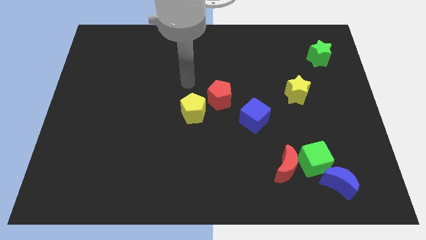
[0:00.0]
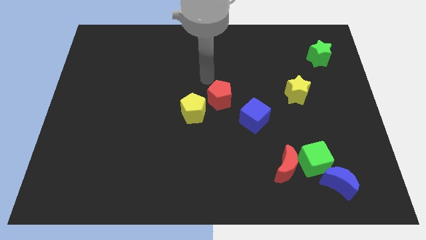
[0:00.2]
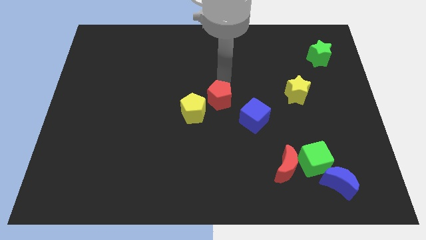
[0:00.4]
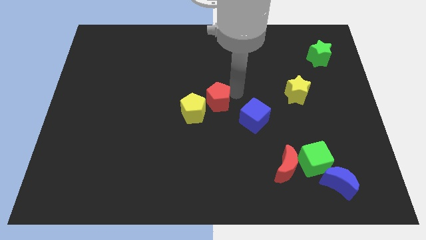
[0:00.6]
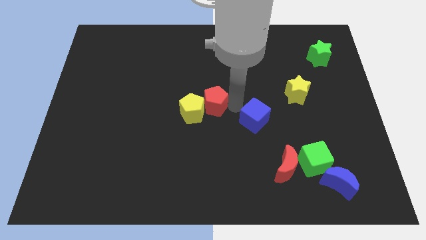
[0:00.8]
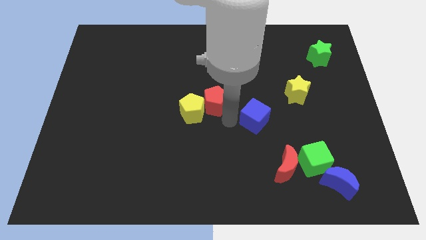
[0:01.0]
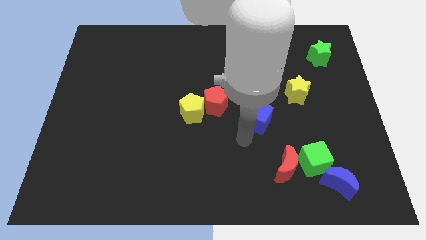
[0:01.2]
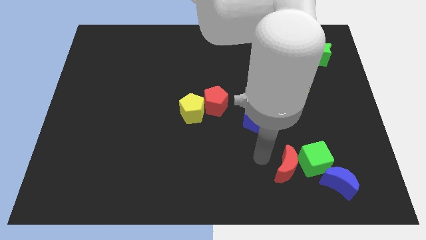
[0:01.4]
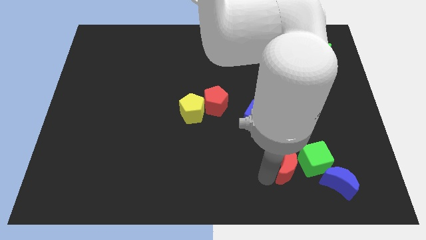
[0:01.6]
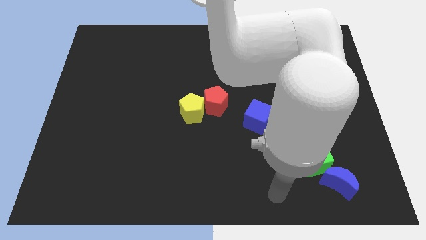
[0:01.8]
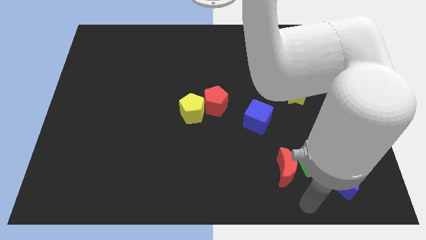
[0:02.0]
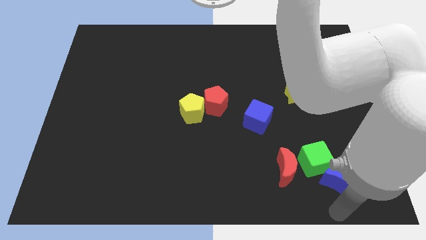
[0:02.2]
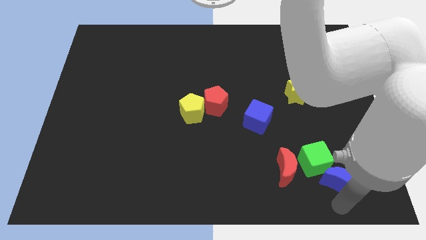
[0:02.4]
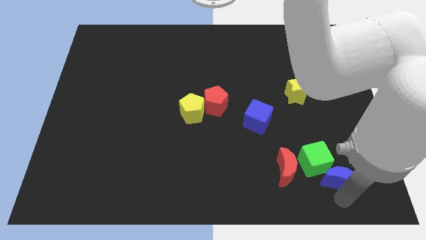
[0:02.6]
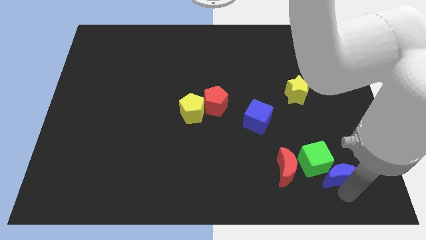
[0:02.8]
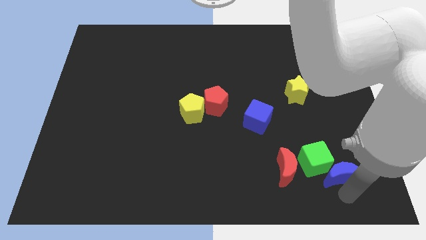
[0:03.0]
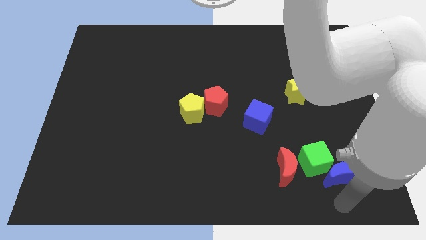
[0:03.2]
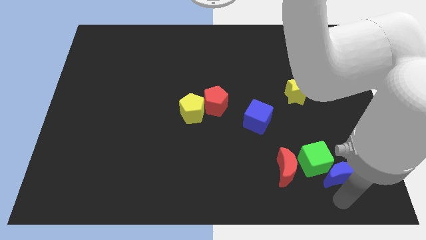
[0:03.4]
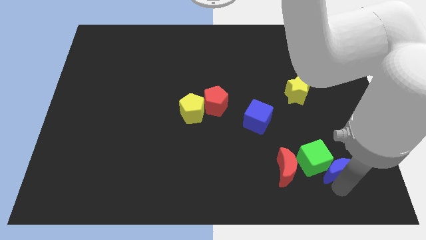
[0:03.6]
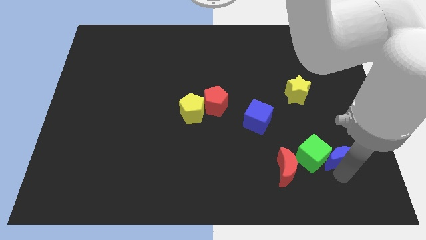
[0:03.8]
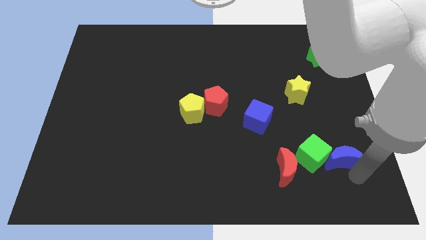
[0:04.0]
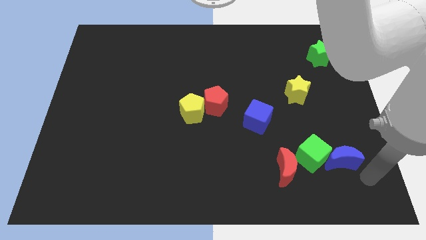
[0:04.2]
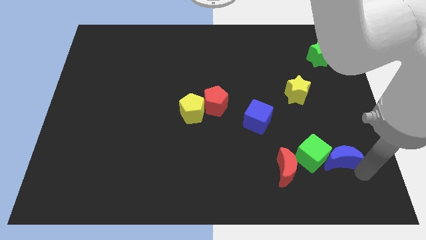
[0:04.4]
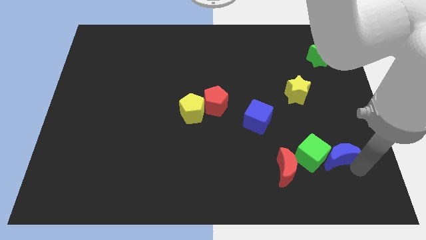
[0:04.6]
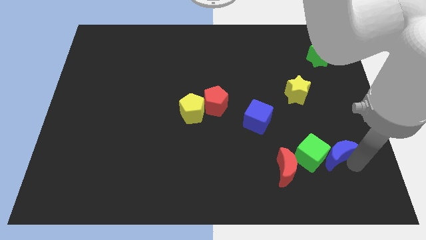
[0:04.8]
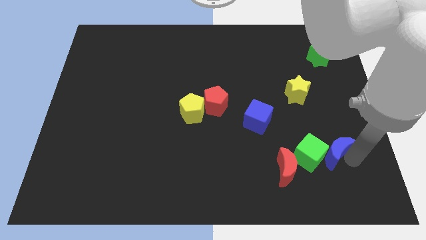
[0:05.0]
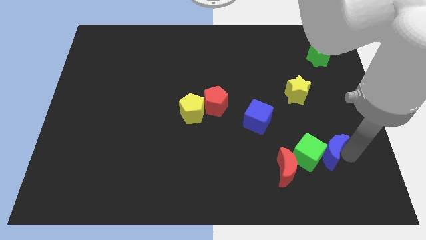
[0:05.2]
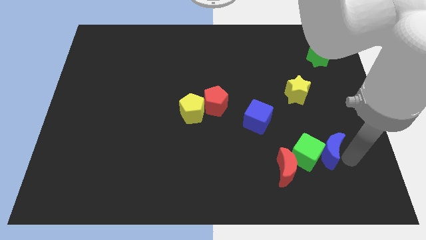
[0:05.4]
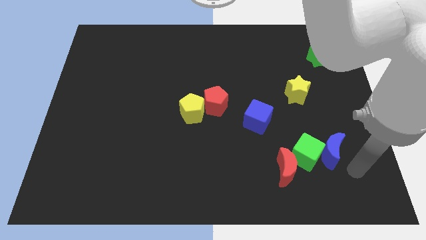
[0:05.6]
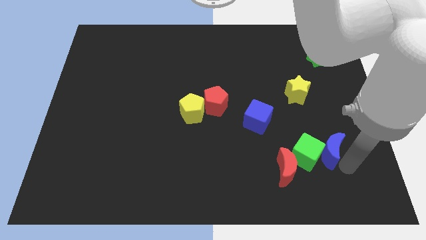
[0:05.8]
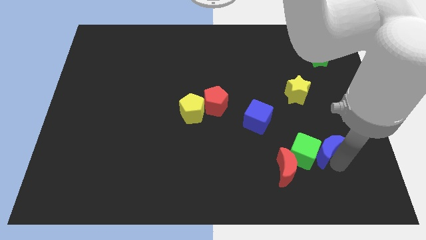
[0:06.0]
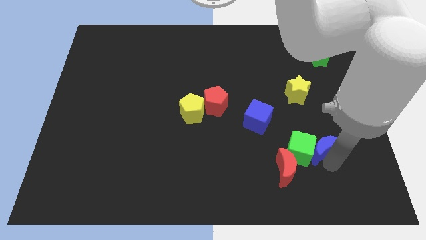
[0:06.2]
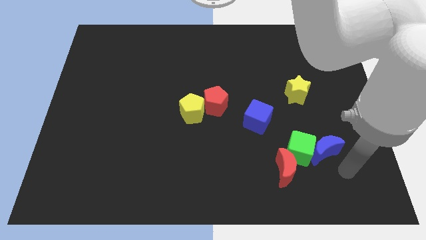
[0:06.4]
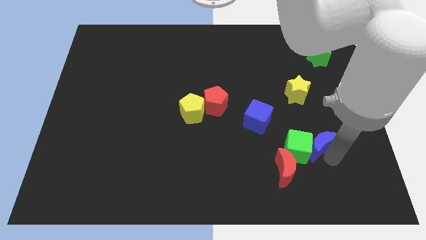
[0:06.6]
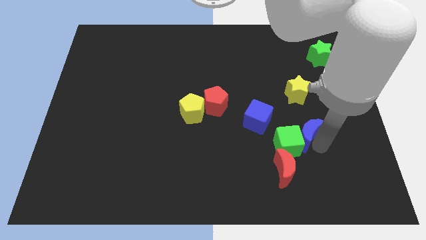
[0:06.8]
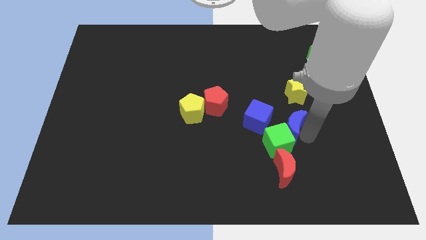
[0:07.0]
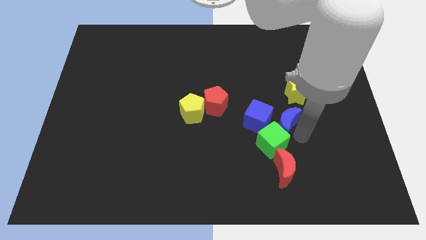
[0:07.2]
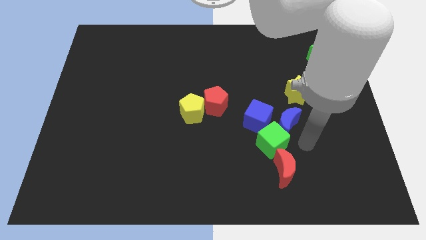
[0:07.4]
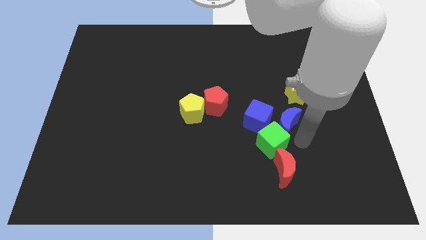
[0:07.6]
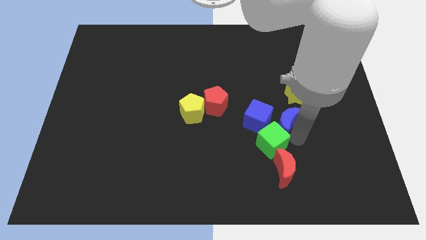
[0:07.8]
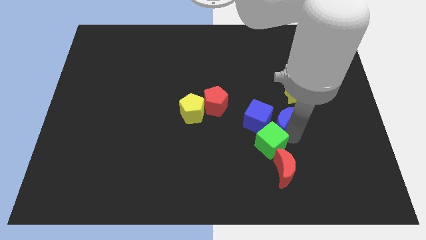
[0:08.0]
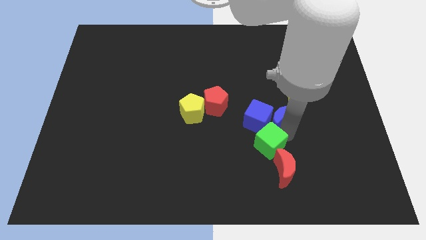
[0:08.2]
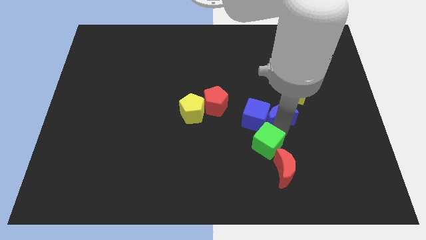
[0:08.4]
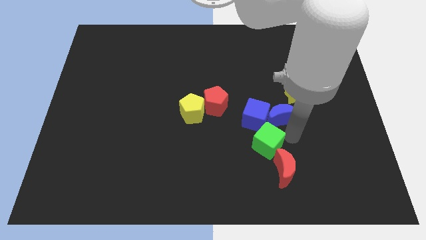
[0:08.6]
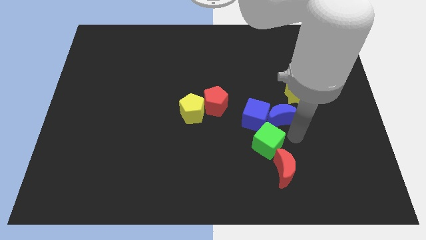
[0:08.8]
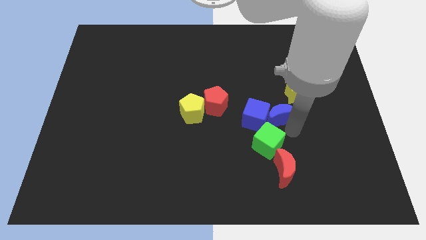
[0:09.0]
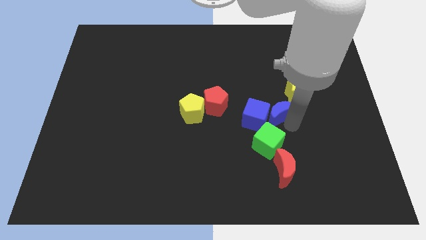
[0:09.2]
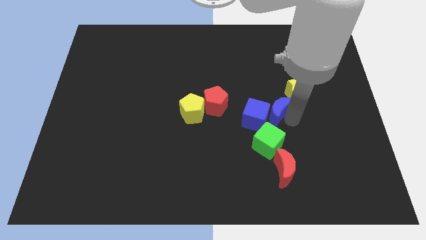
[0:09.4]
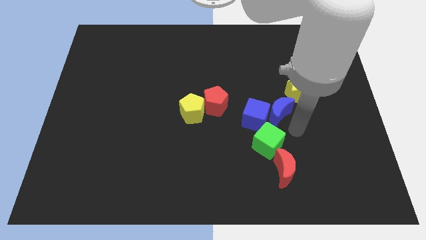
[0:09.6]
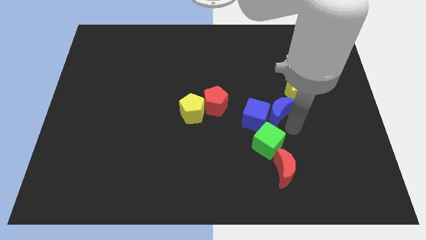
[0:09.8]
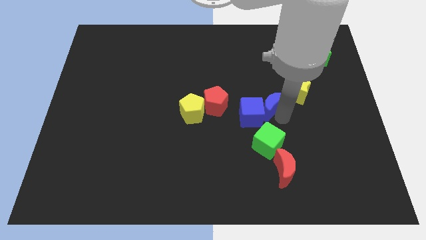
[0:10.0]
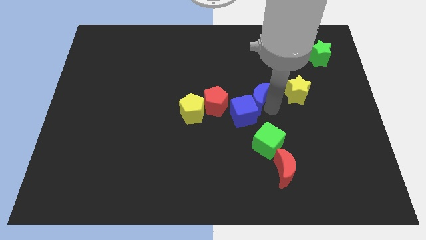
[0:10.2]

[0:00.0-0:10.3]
put the blue moon above the blue cube
